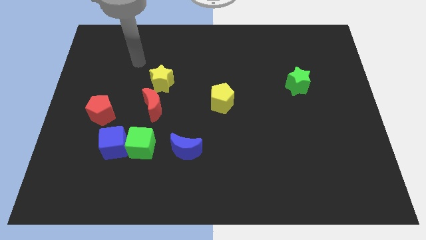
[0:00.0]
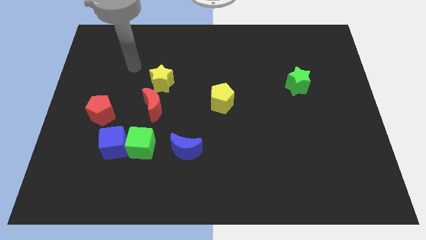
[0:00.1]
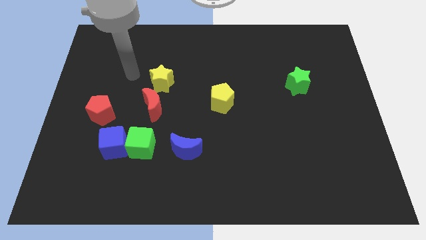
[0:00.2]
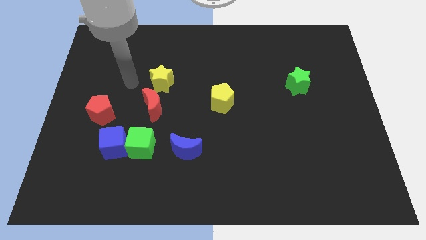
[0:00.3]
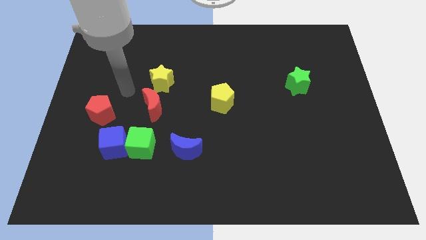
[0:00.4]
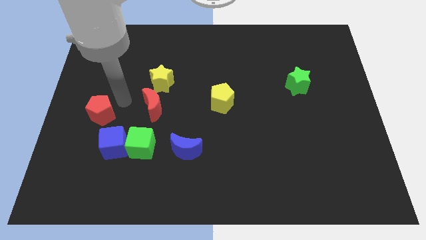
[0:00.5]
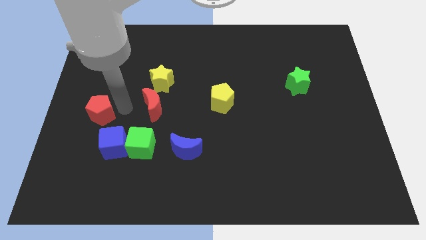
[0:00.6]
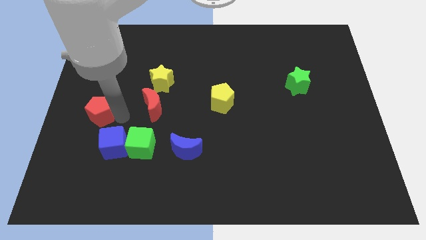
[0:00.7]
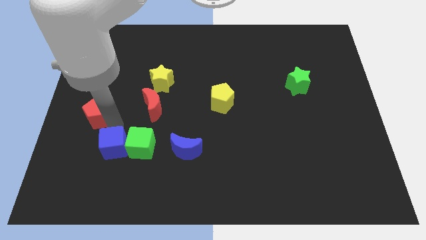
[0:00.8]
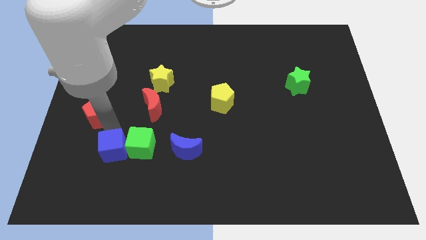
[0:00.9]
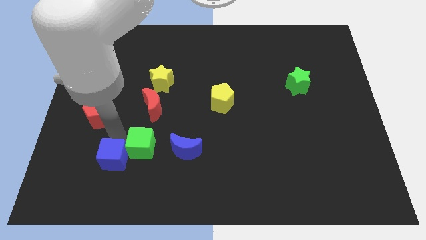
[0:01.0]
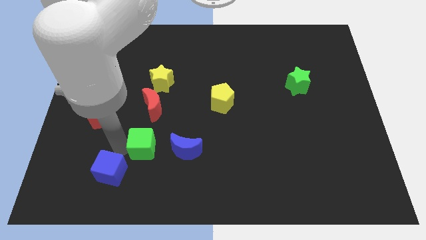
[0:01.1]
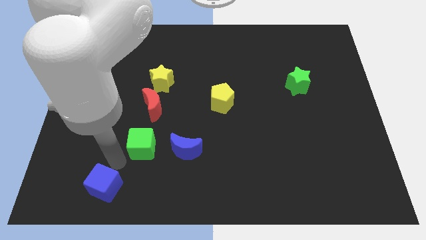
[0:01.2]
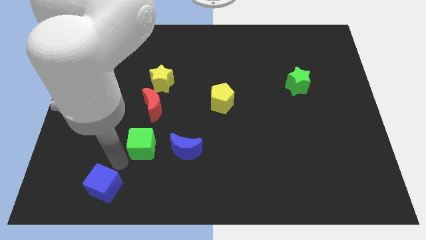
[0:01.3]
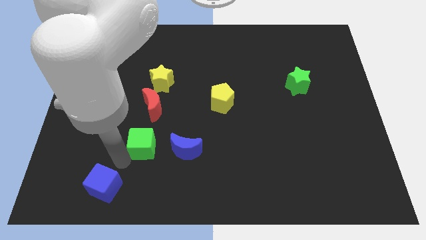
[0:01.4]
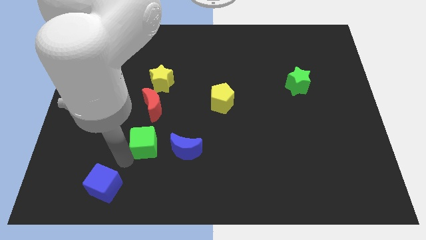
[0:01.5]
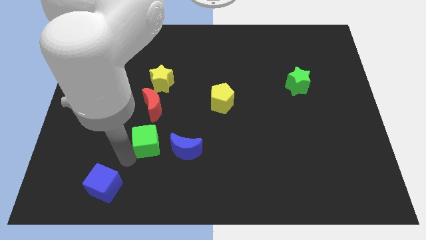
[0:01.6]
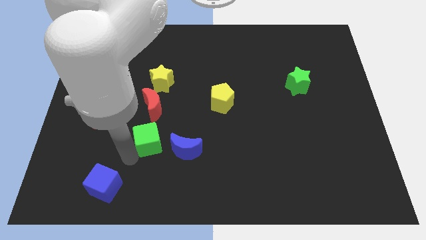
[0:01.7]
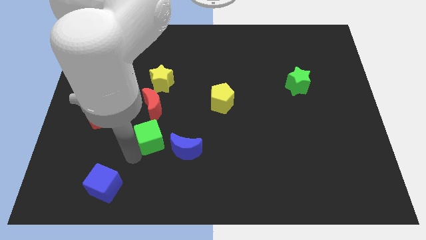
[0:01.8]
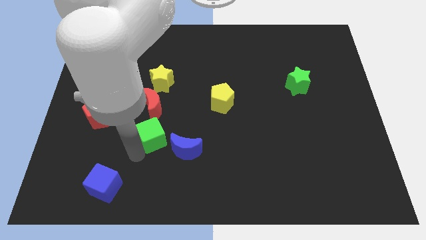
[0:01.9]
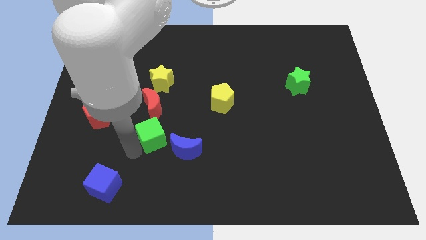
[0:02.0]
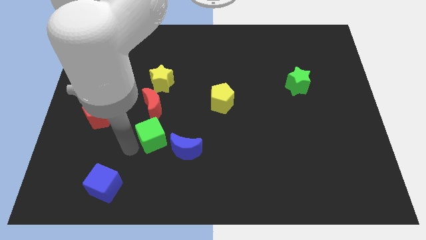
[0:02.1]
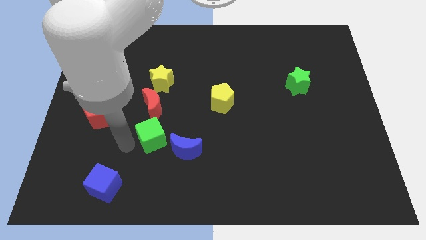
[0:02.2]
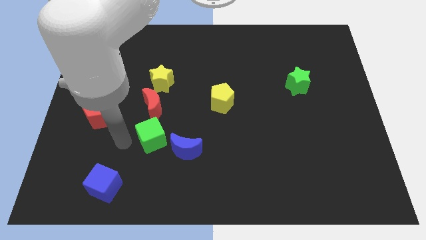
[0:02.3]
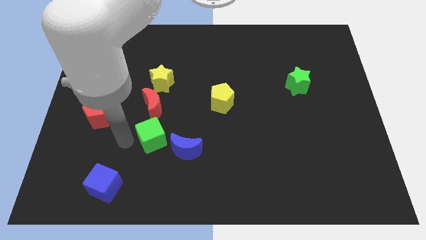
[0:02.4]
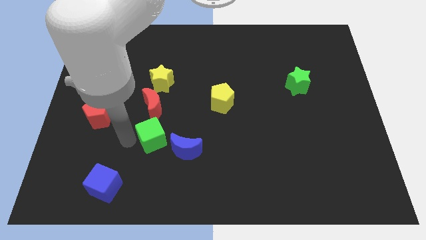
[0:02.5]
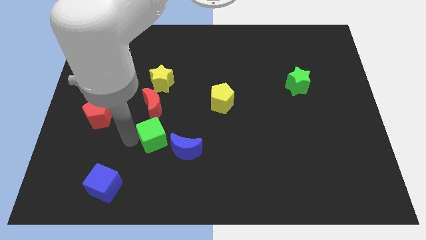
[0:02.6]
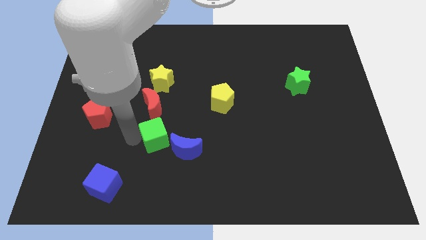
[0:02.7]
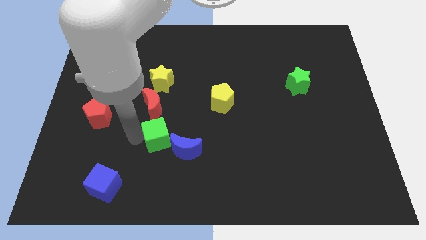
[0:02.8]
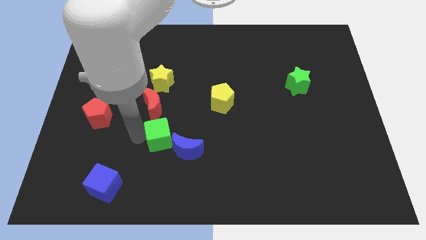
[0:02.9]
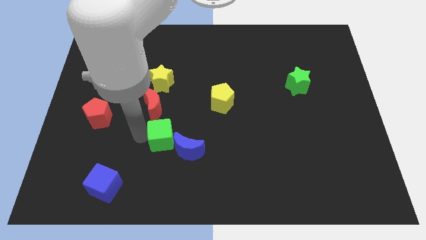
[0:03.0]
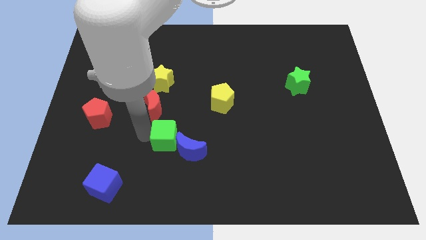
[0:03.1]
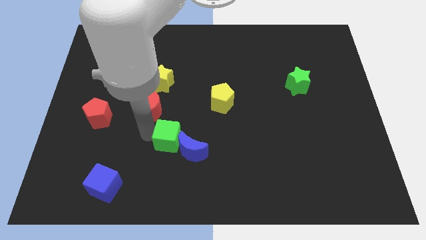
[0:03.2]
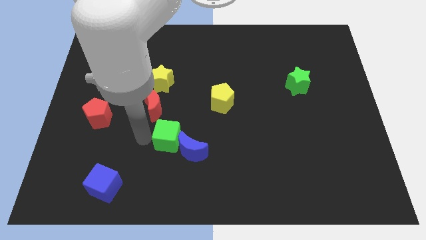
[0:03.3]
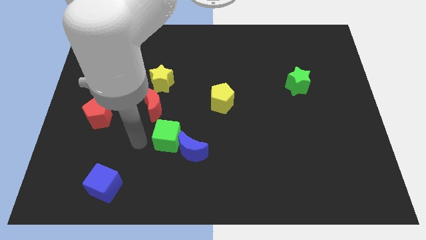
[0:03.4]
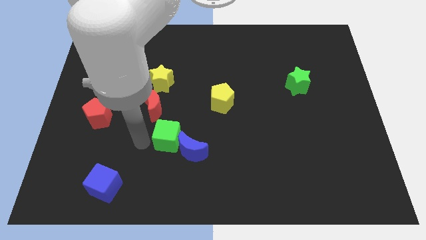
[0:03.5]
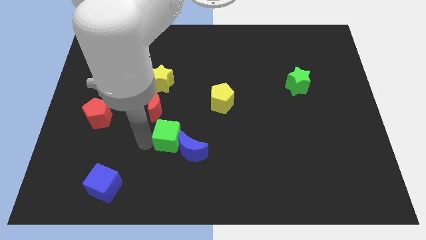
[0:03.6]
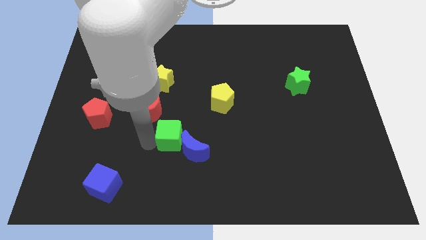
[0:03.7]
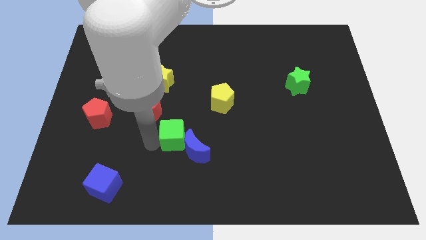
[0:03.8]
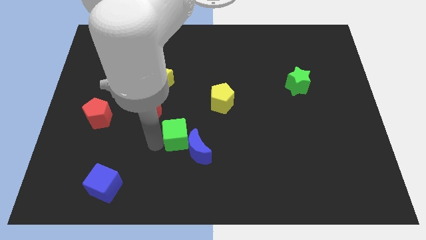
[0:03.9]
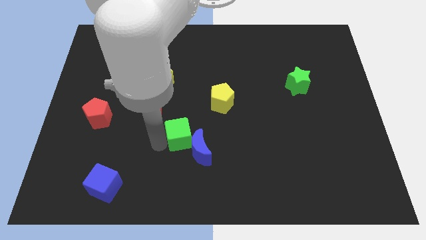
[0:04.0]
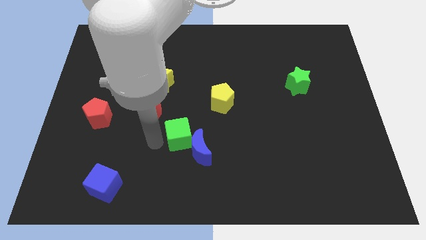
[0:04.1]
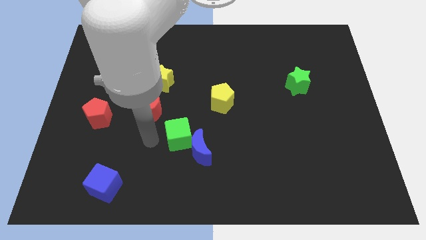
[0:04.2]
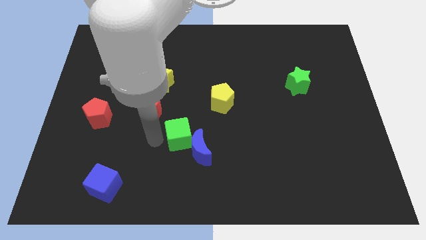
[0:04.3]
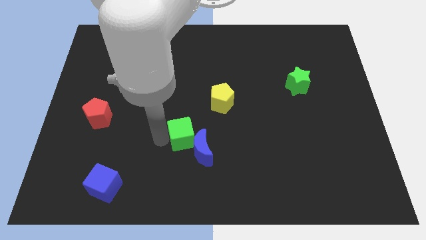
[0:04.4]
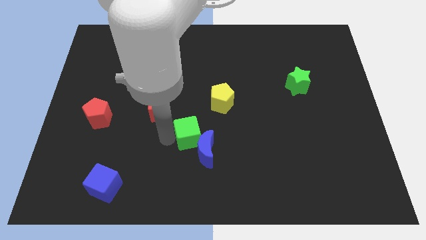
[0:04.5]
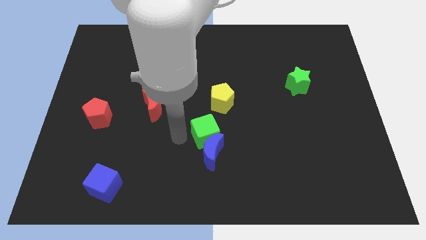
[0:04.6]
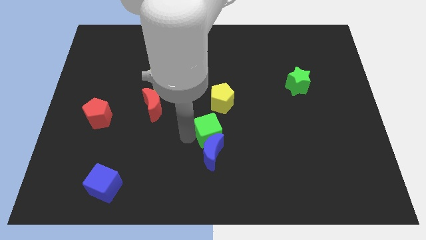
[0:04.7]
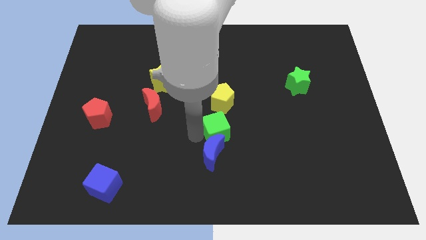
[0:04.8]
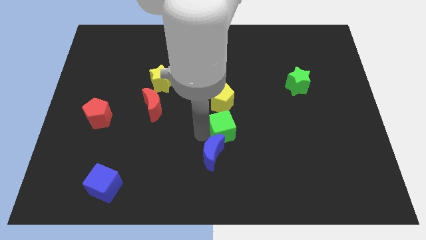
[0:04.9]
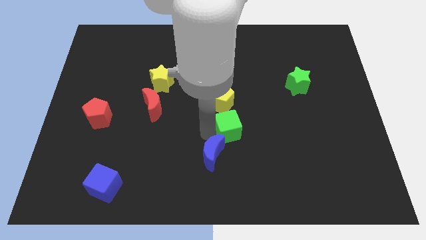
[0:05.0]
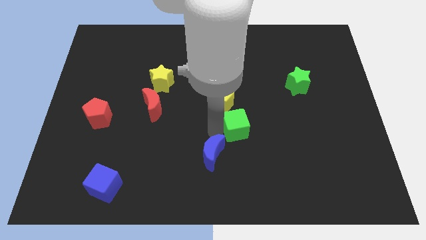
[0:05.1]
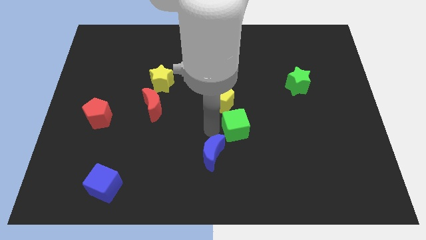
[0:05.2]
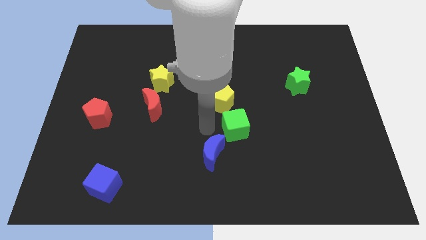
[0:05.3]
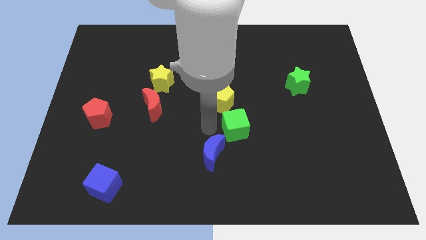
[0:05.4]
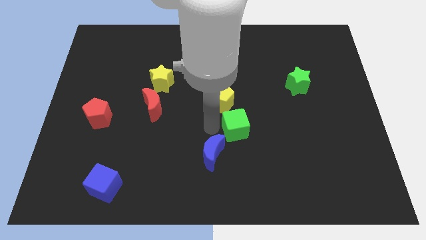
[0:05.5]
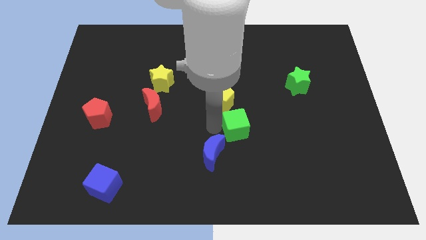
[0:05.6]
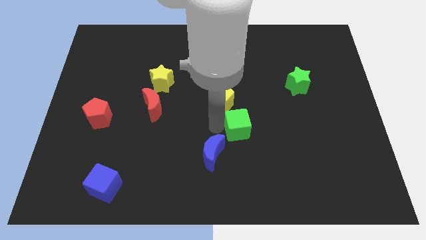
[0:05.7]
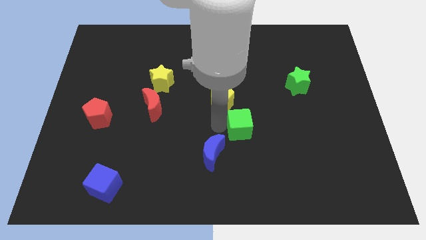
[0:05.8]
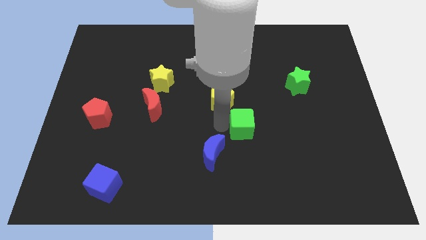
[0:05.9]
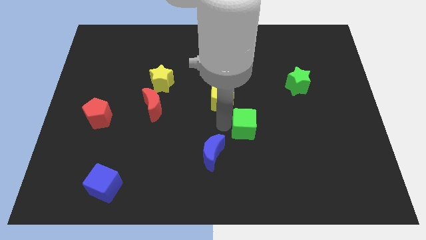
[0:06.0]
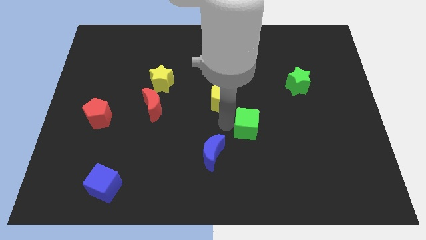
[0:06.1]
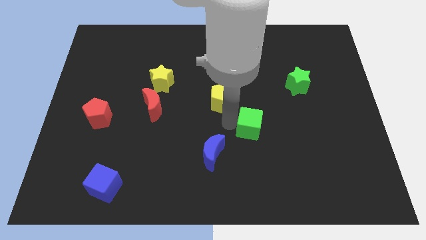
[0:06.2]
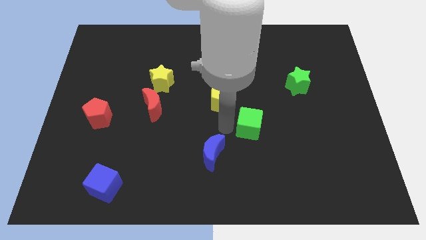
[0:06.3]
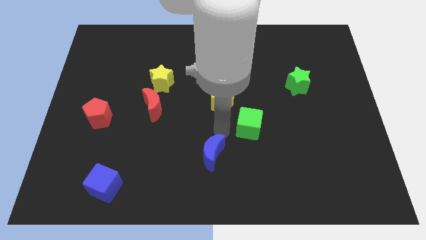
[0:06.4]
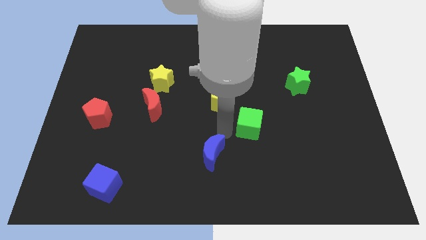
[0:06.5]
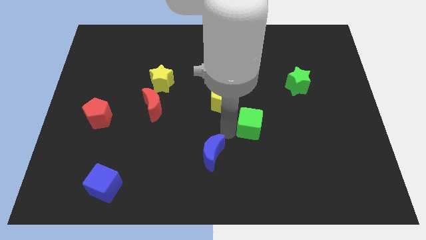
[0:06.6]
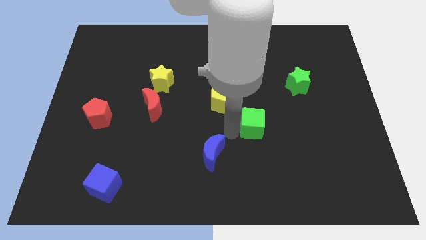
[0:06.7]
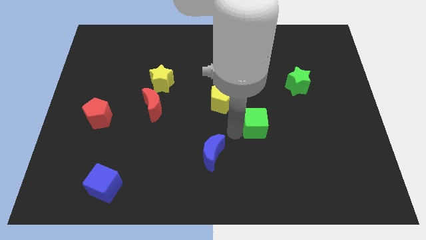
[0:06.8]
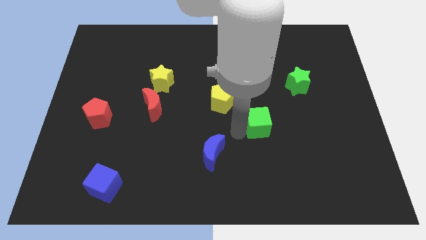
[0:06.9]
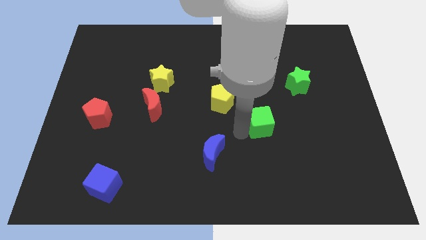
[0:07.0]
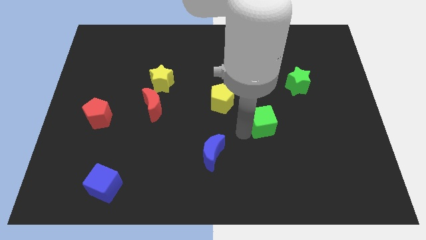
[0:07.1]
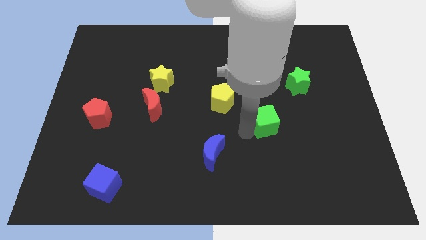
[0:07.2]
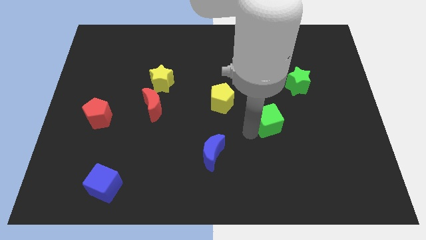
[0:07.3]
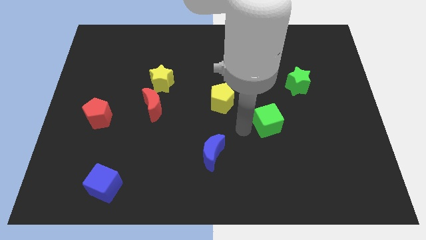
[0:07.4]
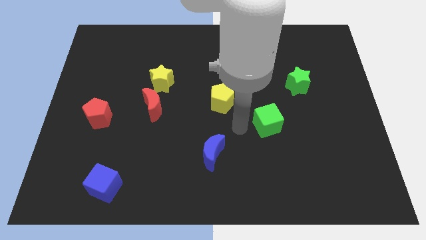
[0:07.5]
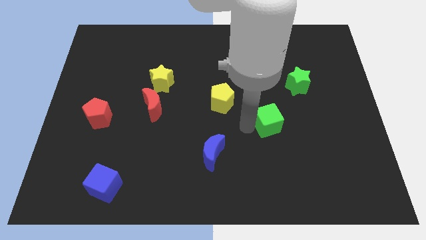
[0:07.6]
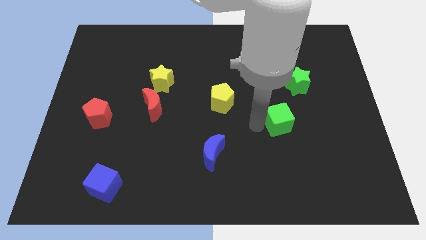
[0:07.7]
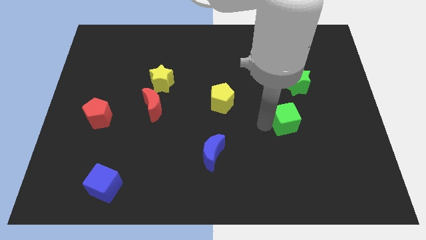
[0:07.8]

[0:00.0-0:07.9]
move the green cube to the bottom side of the green star
